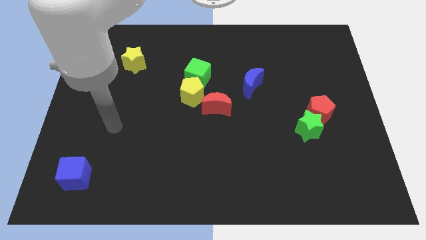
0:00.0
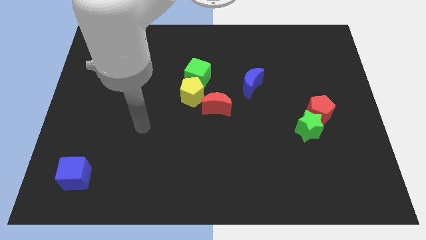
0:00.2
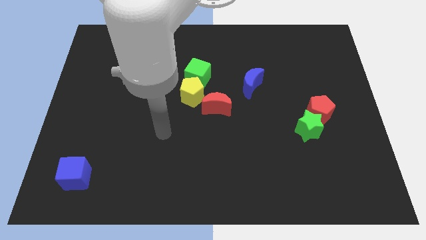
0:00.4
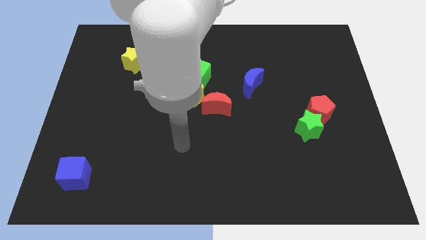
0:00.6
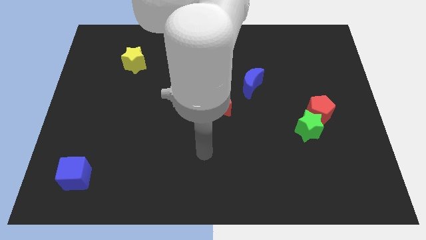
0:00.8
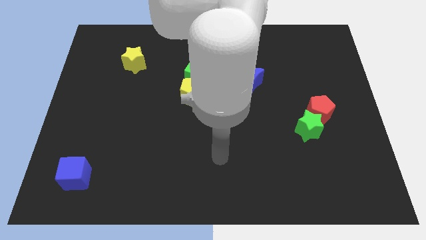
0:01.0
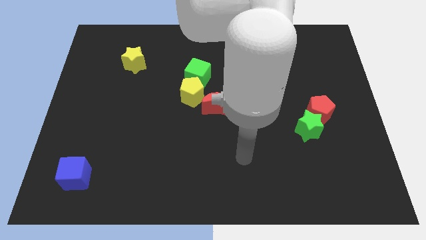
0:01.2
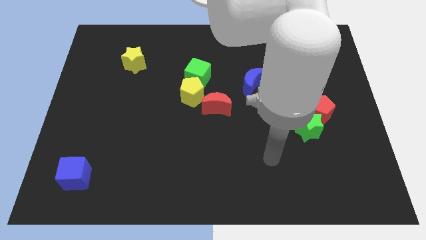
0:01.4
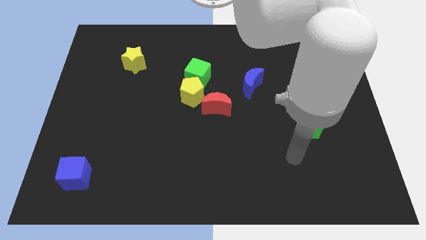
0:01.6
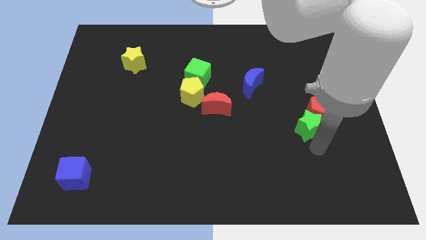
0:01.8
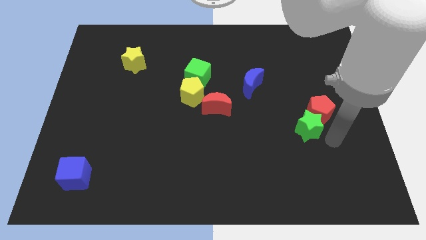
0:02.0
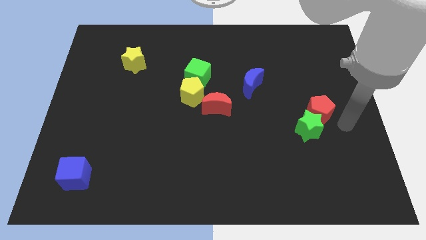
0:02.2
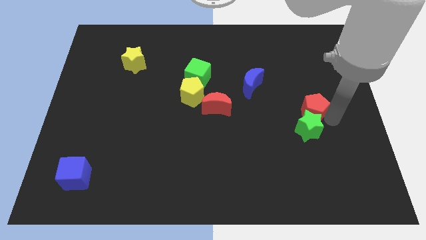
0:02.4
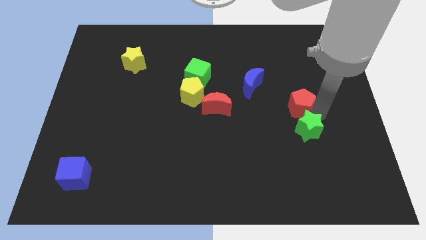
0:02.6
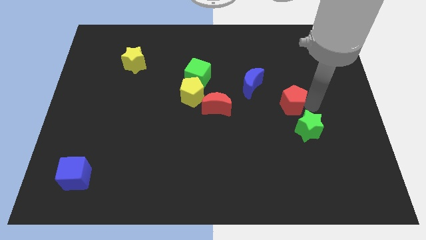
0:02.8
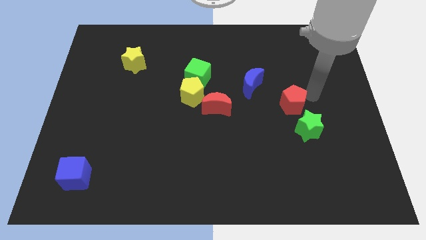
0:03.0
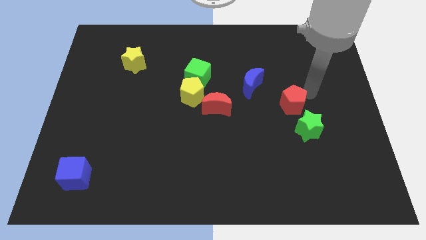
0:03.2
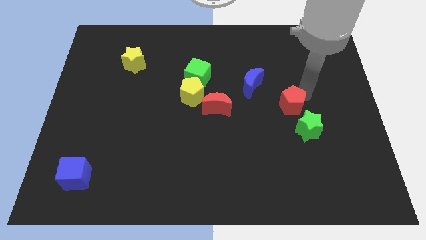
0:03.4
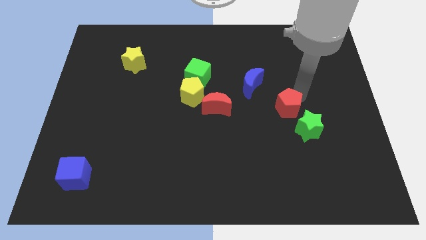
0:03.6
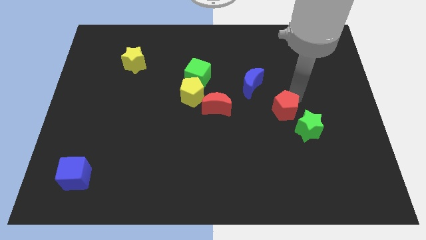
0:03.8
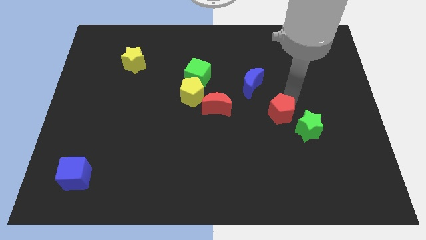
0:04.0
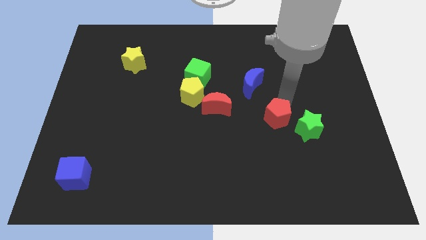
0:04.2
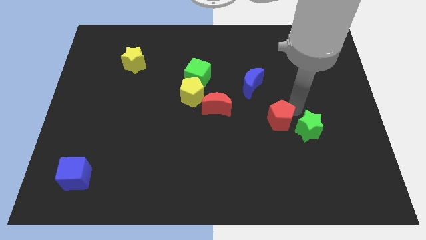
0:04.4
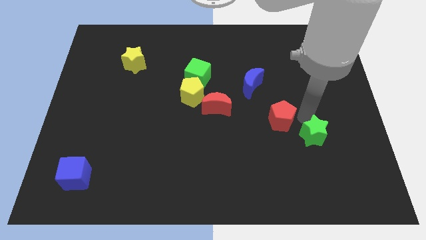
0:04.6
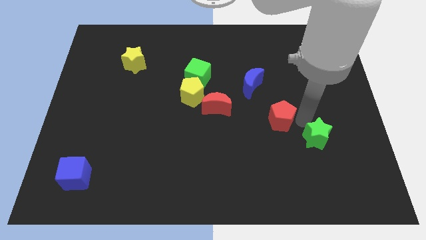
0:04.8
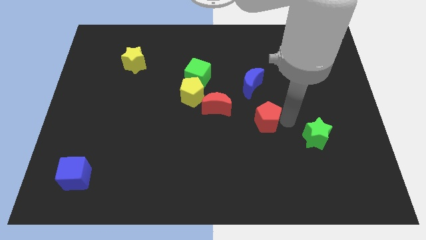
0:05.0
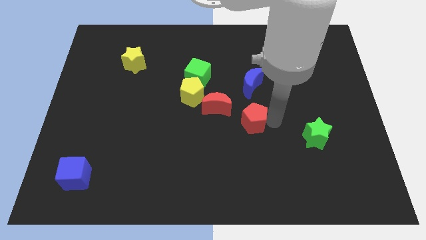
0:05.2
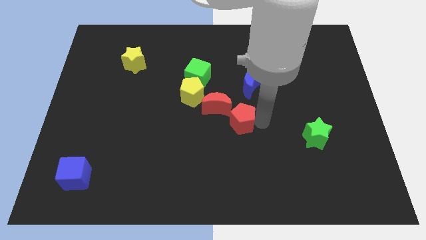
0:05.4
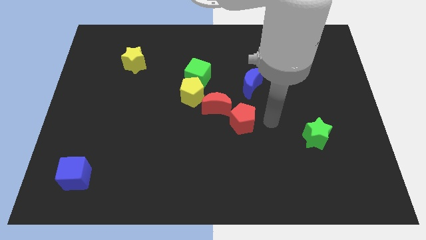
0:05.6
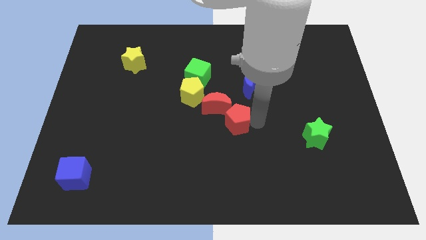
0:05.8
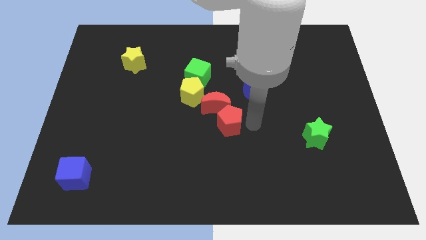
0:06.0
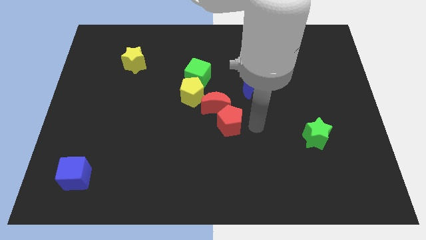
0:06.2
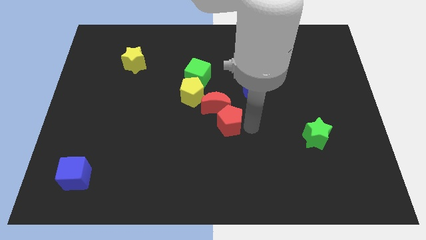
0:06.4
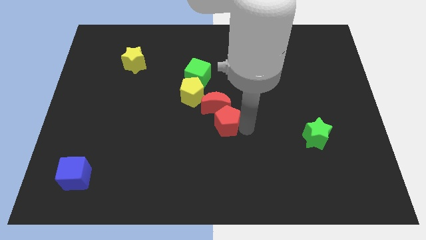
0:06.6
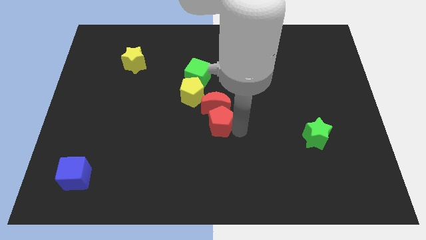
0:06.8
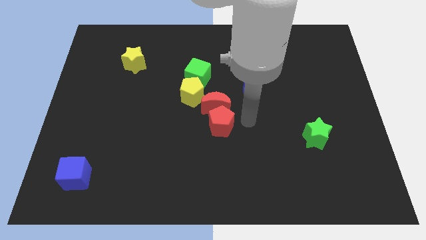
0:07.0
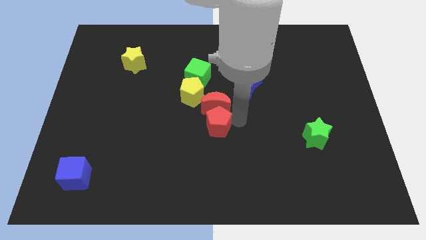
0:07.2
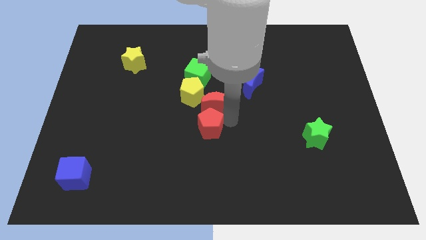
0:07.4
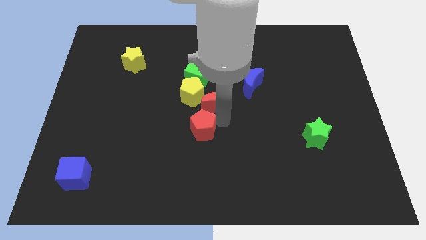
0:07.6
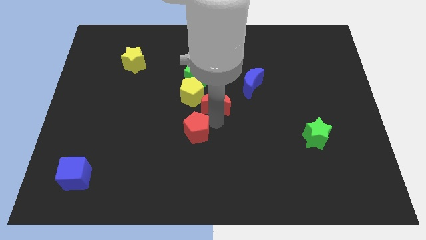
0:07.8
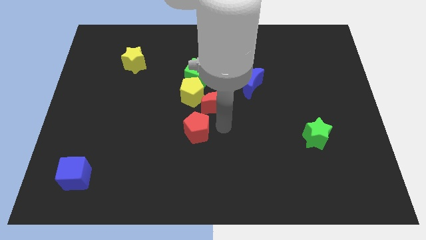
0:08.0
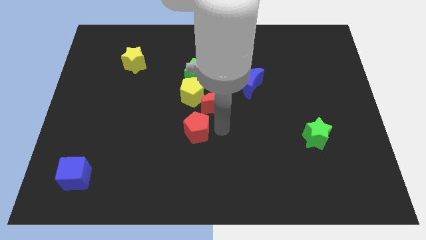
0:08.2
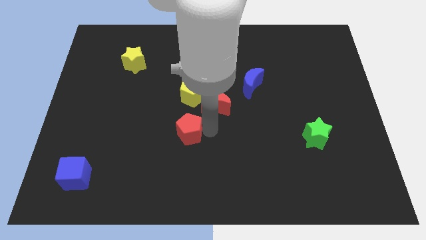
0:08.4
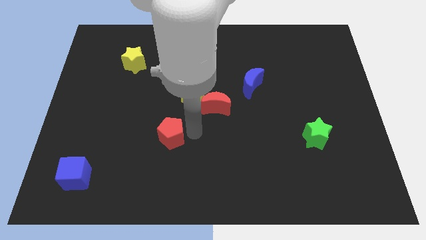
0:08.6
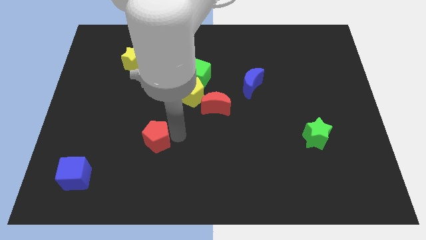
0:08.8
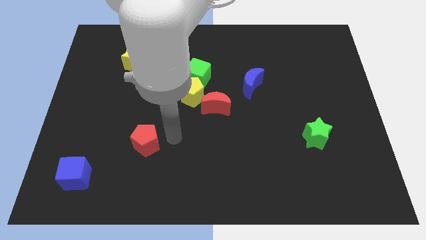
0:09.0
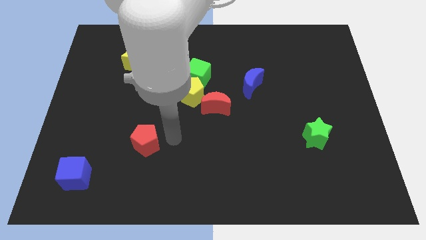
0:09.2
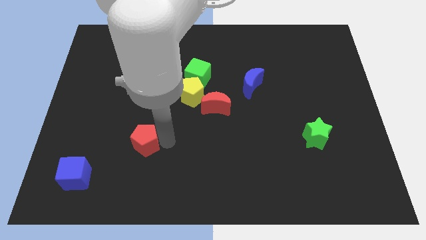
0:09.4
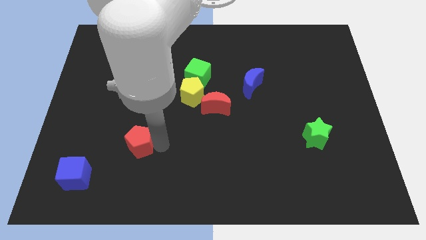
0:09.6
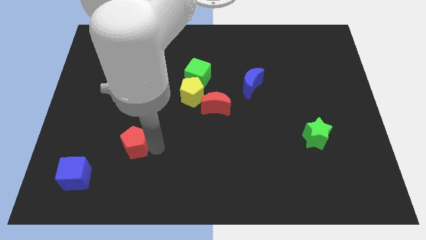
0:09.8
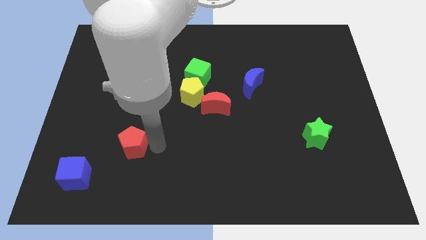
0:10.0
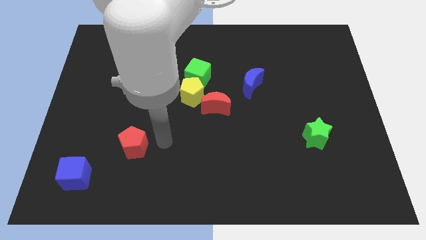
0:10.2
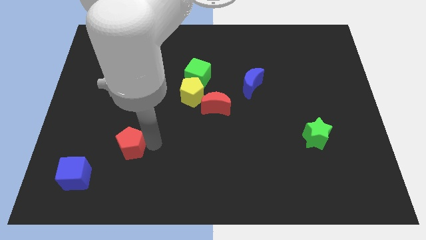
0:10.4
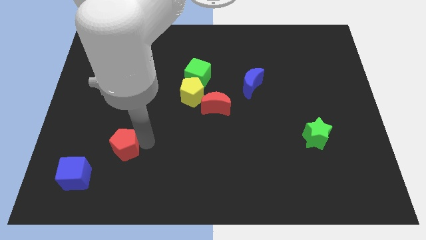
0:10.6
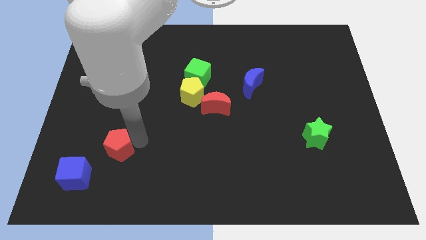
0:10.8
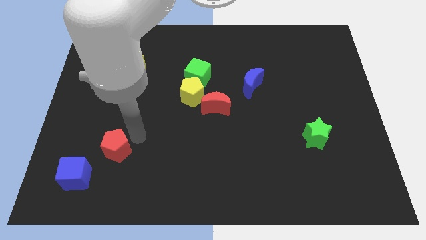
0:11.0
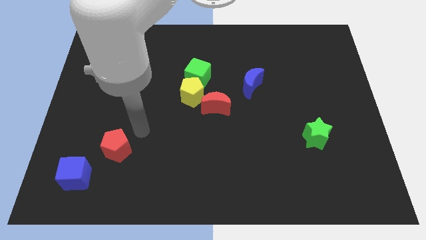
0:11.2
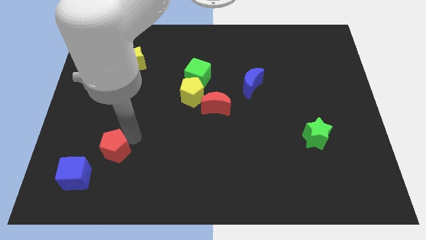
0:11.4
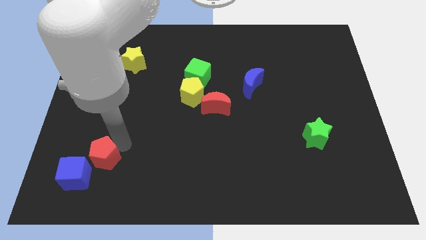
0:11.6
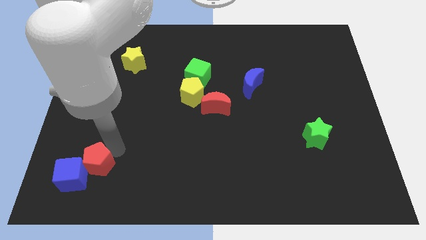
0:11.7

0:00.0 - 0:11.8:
push the red pentagon next to the blue cube

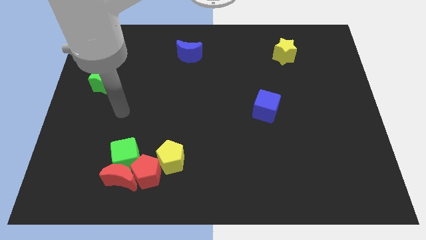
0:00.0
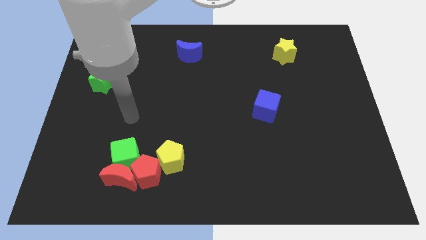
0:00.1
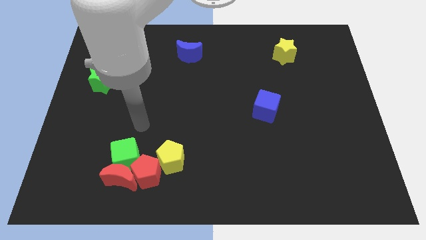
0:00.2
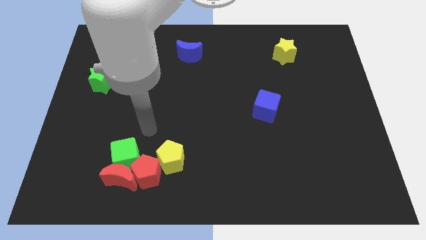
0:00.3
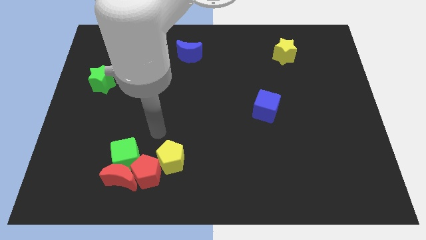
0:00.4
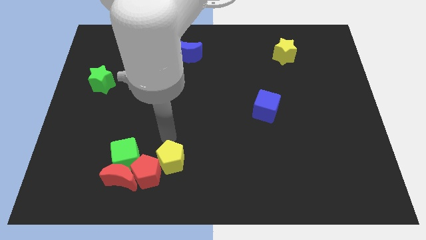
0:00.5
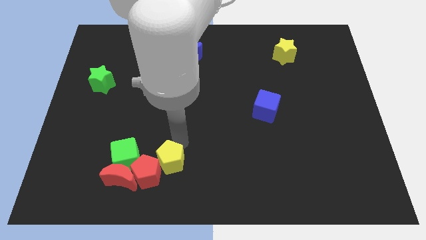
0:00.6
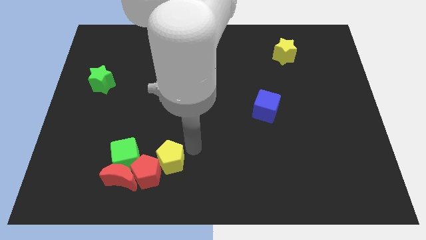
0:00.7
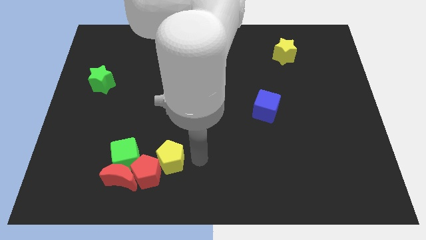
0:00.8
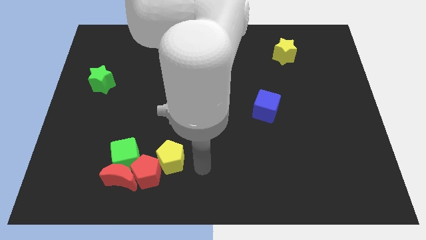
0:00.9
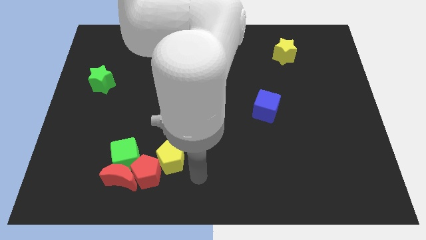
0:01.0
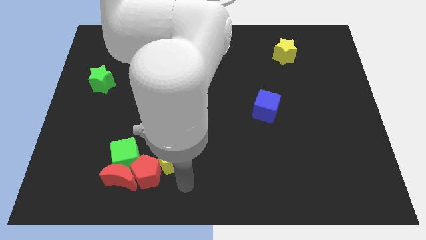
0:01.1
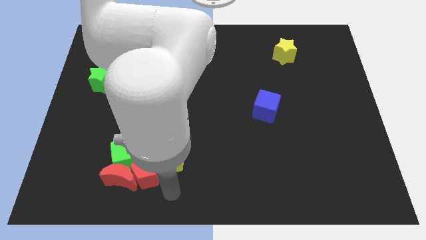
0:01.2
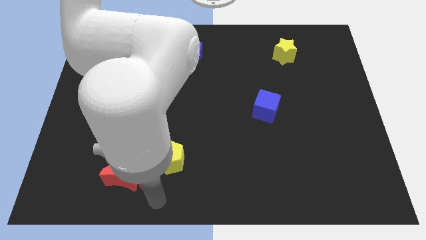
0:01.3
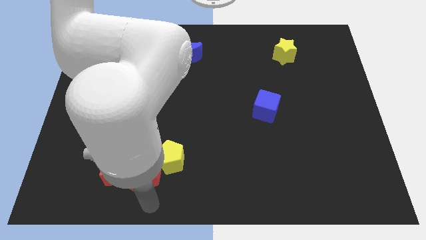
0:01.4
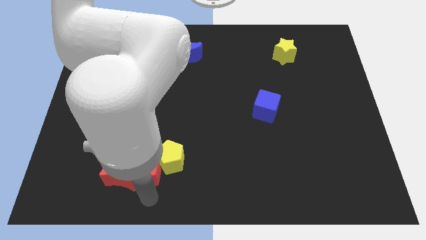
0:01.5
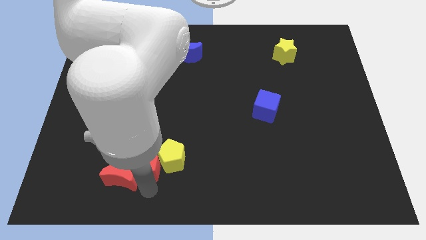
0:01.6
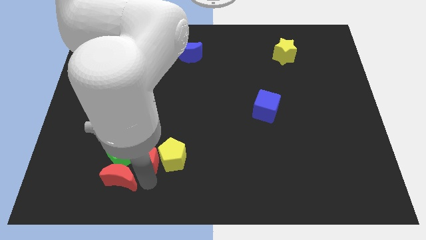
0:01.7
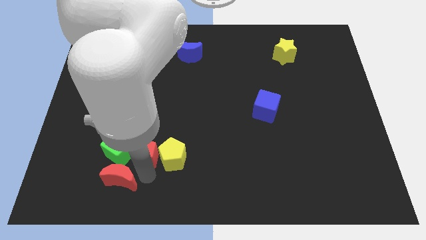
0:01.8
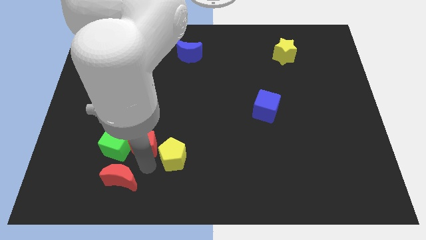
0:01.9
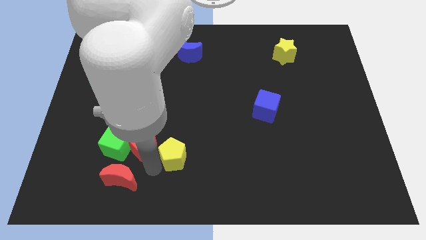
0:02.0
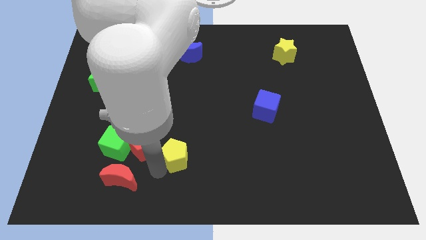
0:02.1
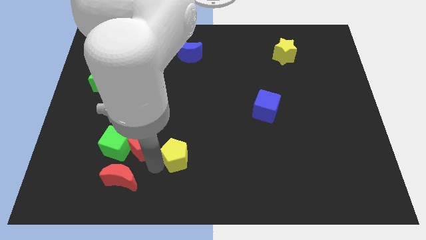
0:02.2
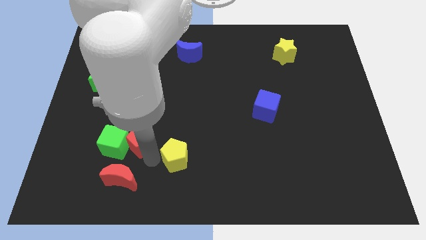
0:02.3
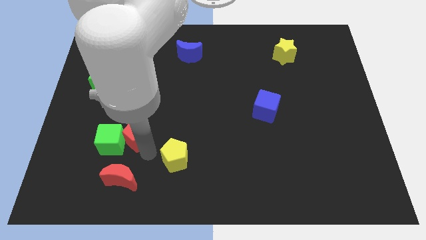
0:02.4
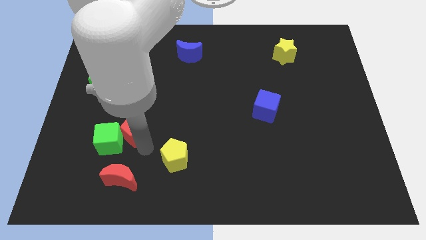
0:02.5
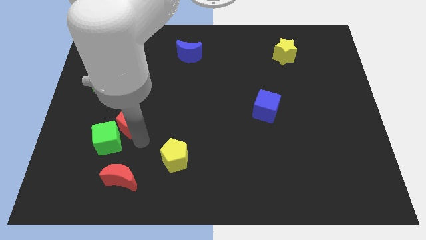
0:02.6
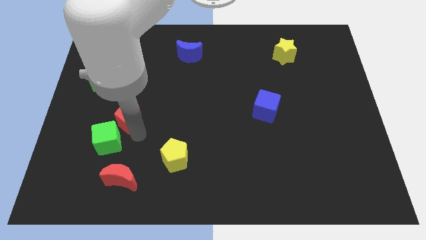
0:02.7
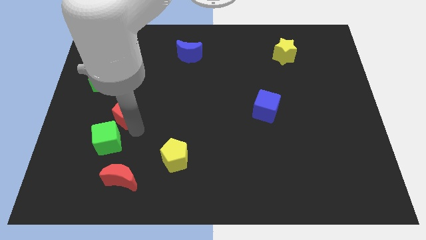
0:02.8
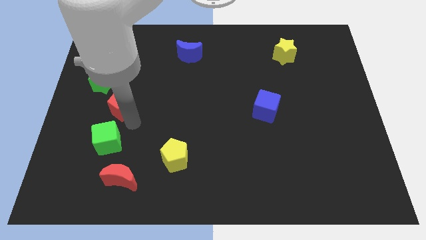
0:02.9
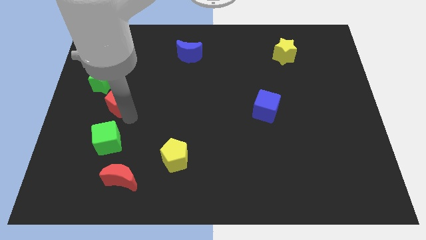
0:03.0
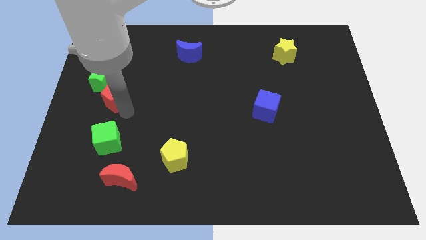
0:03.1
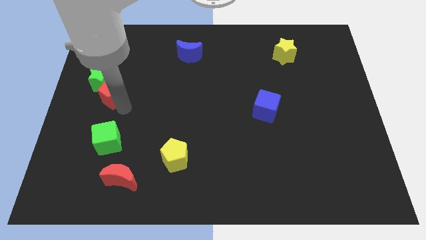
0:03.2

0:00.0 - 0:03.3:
slide the red pentagon next to the green star
